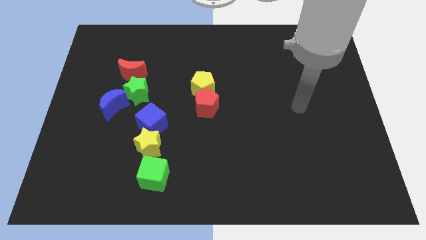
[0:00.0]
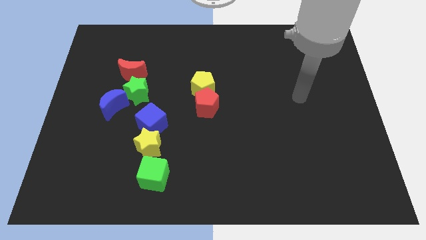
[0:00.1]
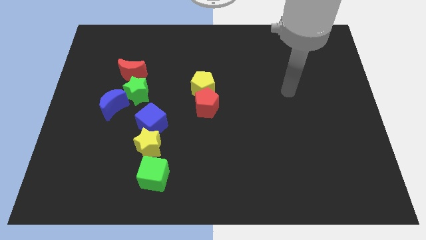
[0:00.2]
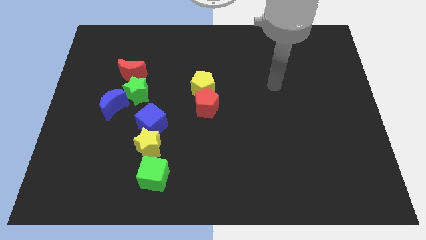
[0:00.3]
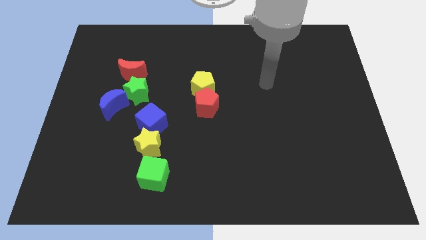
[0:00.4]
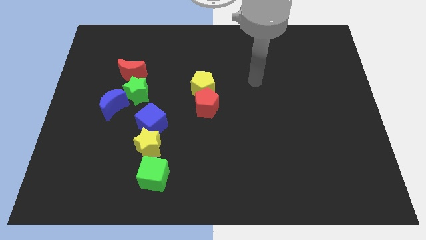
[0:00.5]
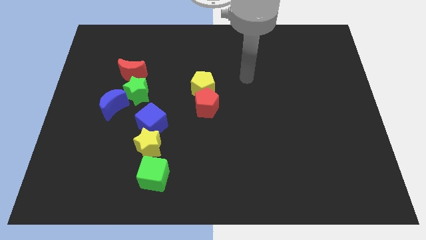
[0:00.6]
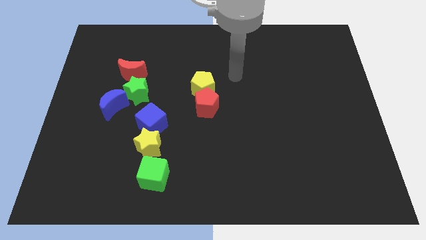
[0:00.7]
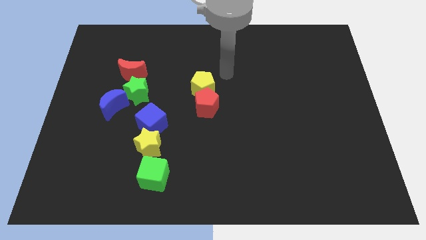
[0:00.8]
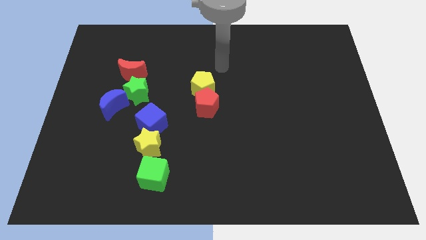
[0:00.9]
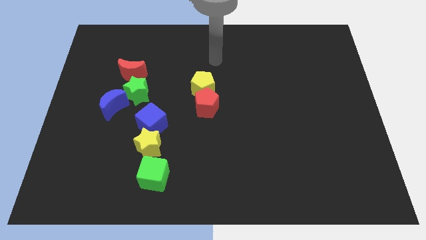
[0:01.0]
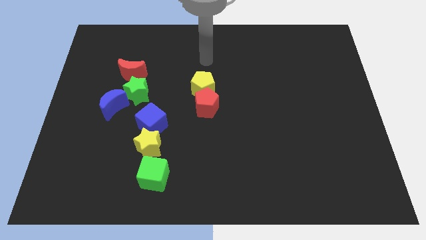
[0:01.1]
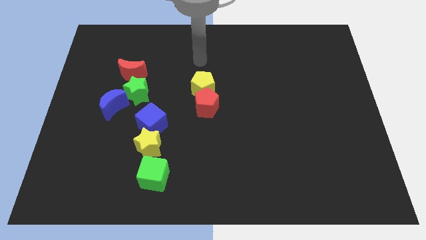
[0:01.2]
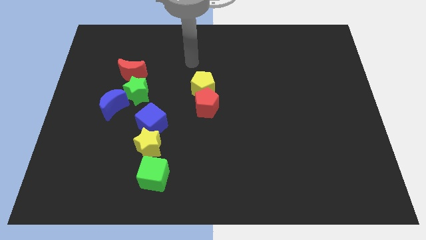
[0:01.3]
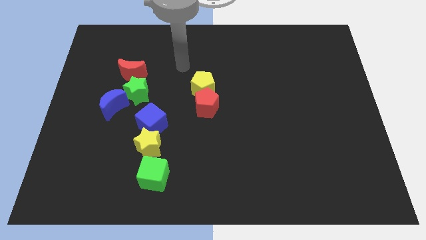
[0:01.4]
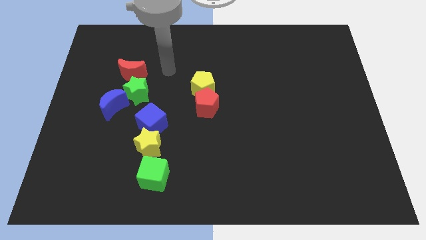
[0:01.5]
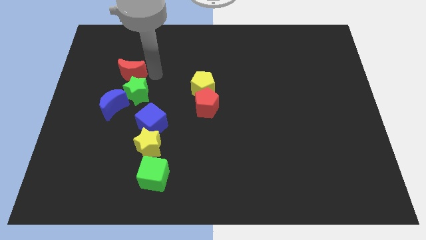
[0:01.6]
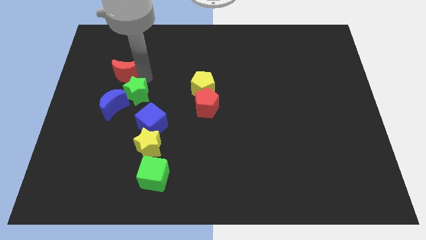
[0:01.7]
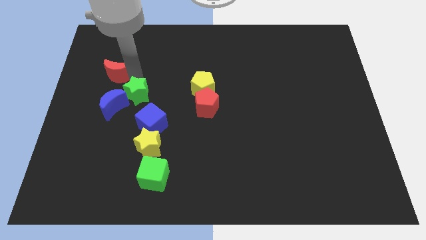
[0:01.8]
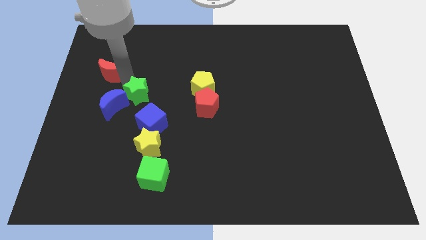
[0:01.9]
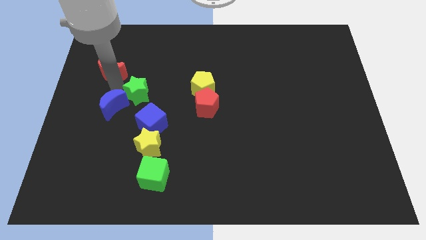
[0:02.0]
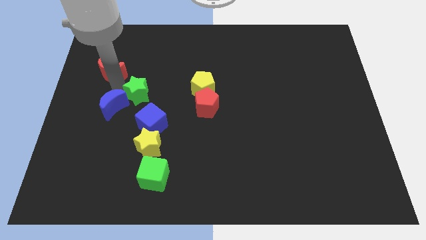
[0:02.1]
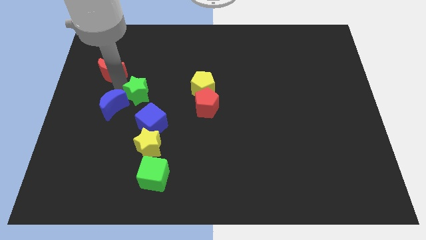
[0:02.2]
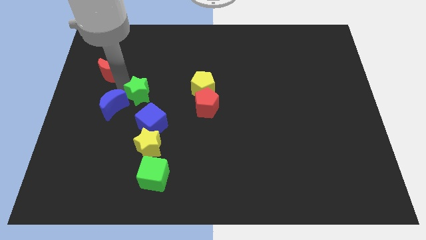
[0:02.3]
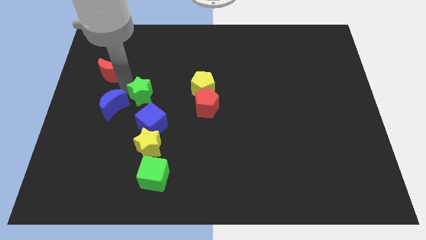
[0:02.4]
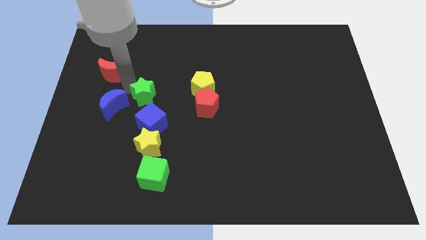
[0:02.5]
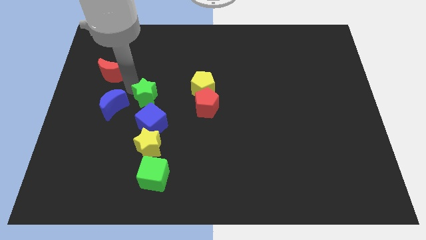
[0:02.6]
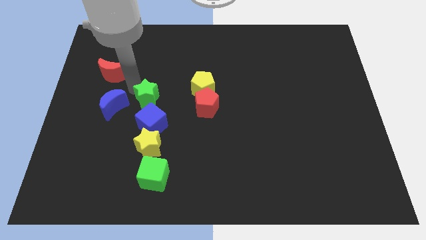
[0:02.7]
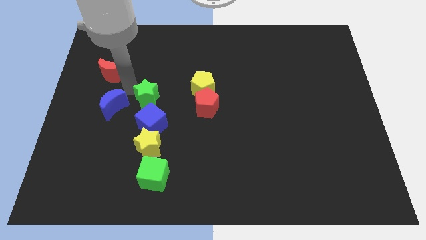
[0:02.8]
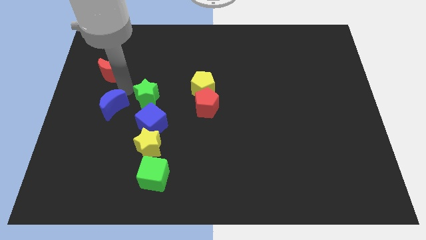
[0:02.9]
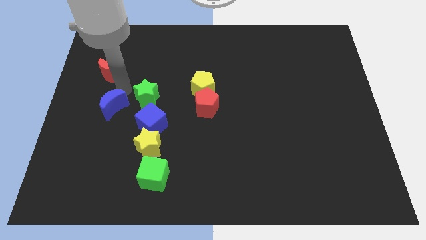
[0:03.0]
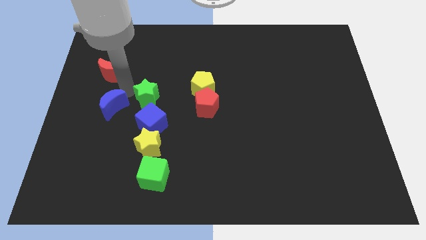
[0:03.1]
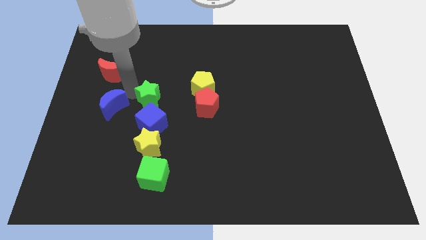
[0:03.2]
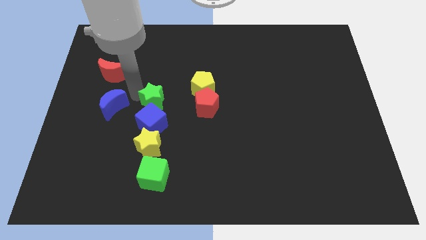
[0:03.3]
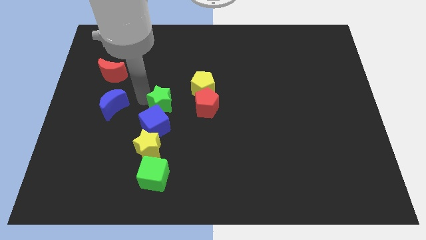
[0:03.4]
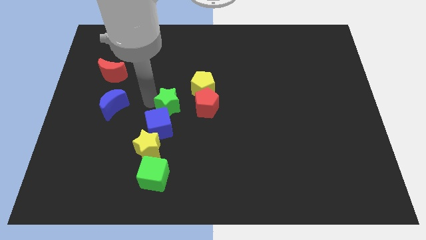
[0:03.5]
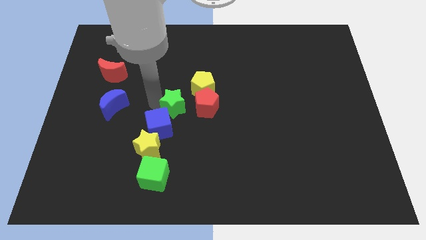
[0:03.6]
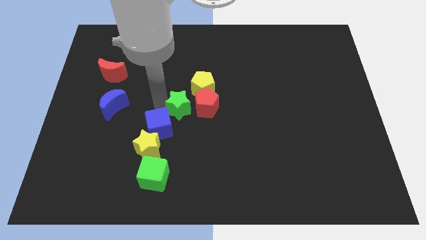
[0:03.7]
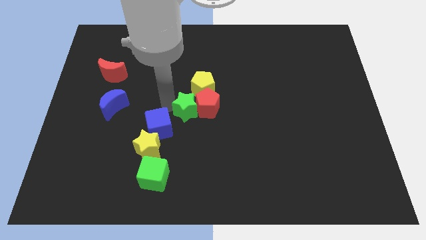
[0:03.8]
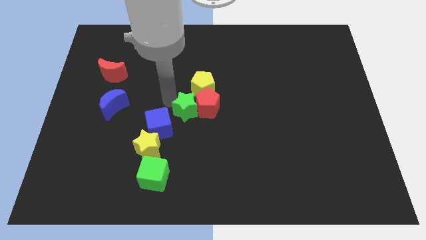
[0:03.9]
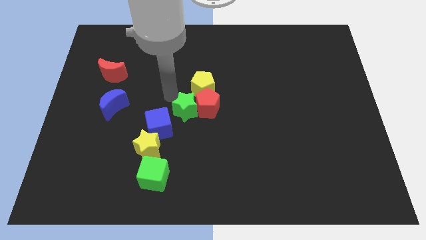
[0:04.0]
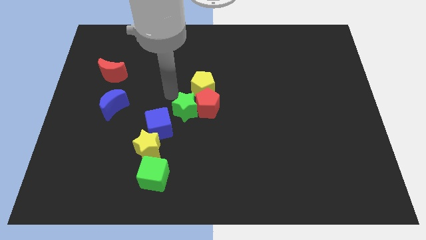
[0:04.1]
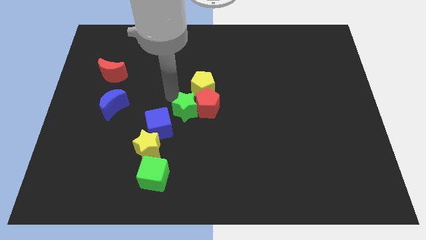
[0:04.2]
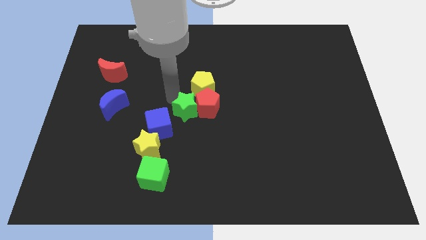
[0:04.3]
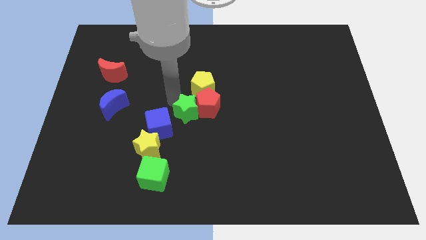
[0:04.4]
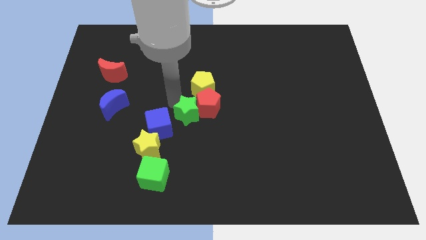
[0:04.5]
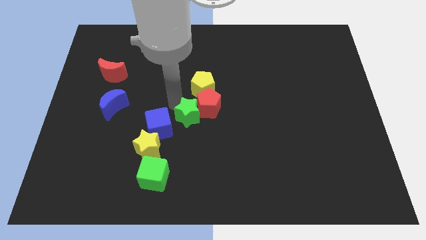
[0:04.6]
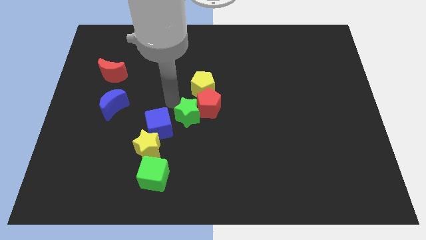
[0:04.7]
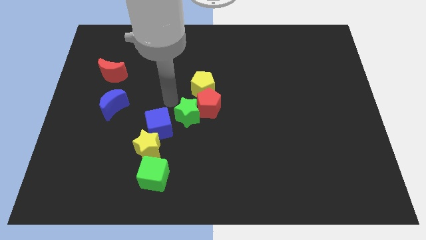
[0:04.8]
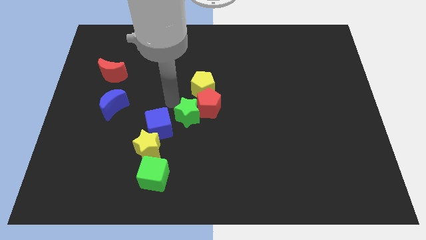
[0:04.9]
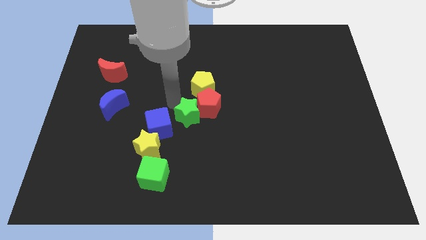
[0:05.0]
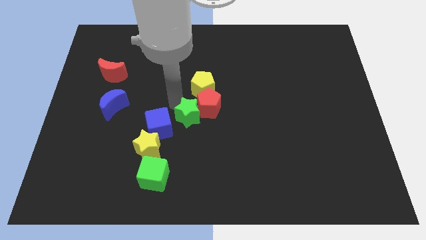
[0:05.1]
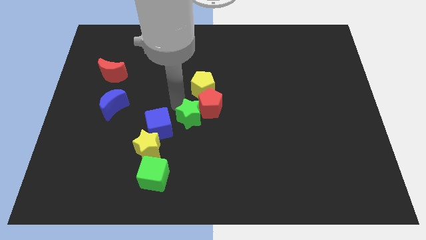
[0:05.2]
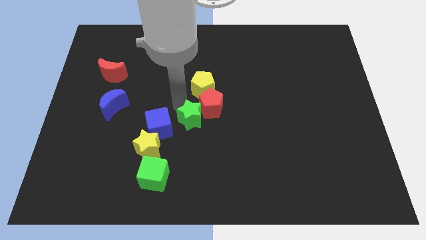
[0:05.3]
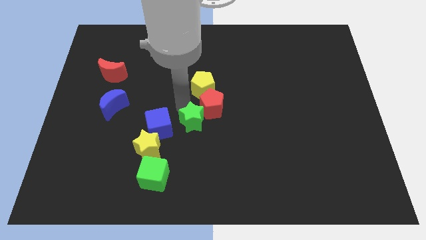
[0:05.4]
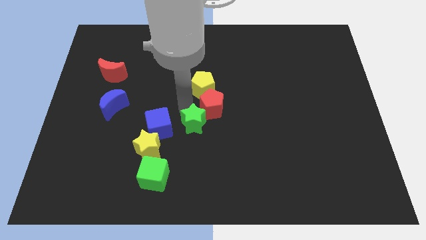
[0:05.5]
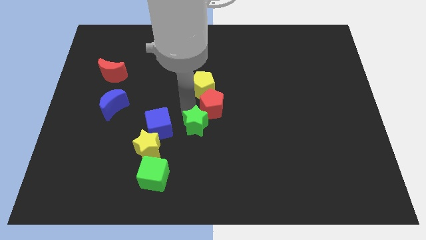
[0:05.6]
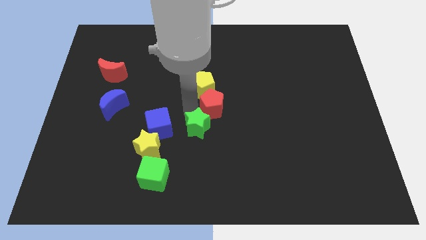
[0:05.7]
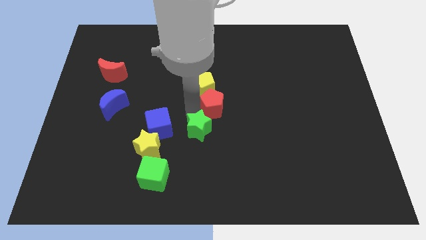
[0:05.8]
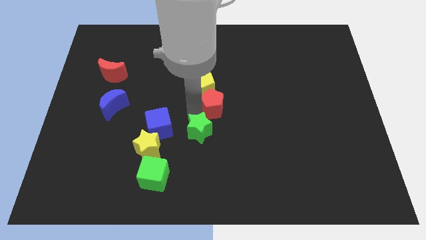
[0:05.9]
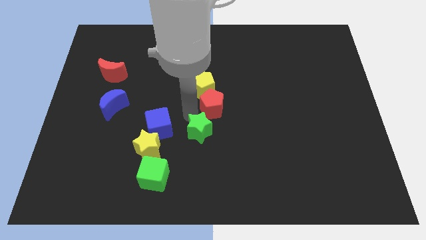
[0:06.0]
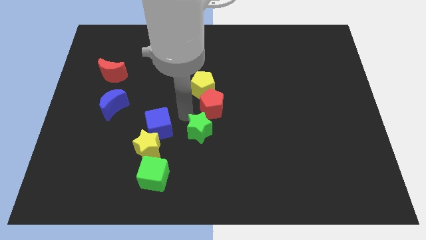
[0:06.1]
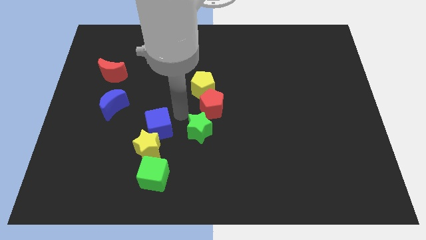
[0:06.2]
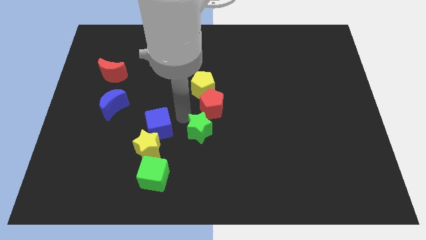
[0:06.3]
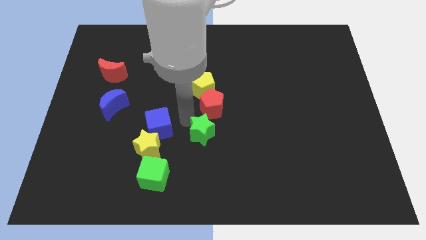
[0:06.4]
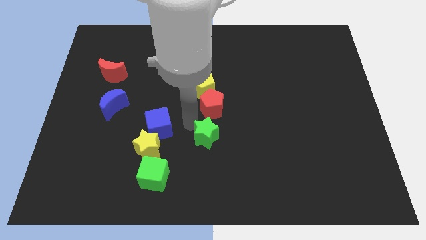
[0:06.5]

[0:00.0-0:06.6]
slide the green star down and then right

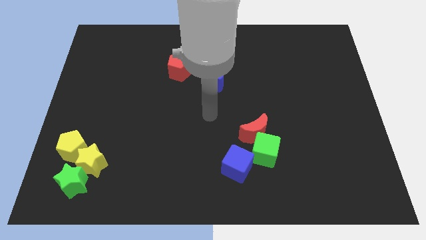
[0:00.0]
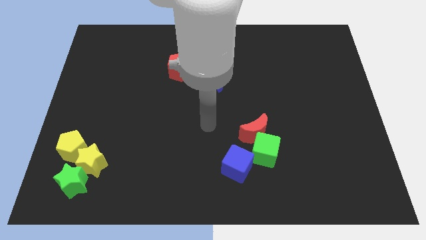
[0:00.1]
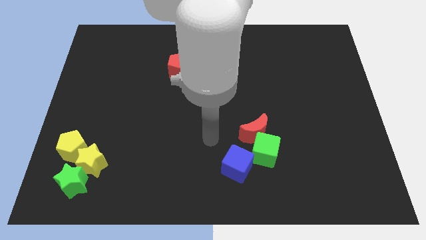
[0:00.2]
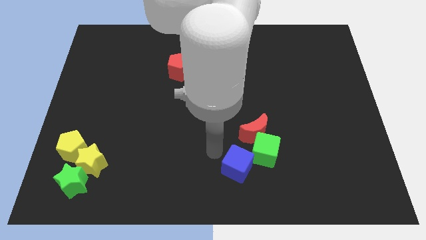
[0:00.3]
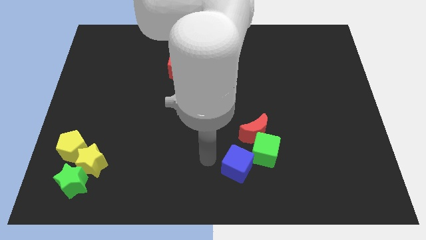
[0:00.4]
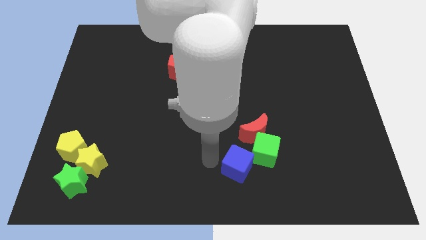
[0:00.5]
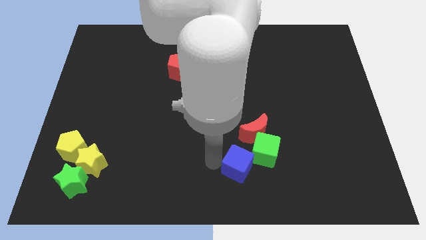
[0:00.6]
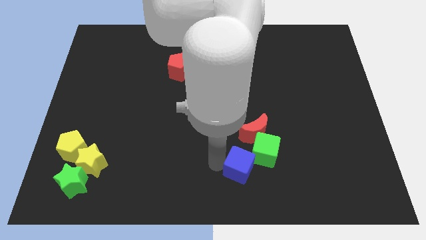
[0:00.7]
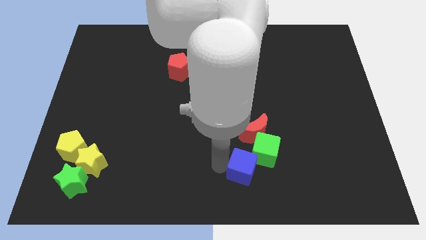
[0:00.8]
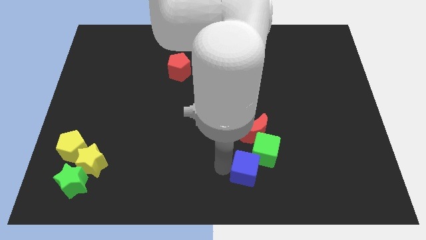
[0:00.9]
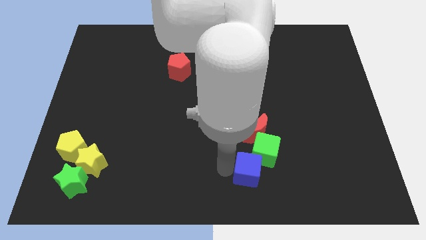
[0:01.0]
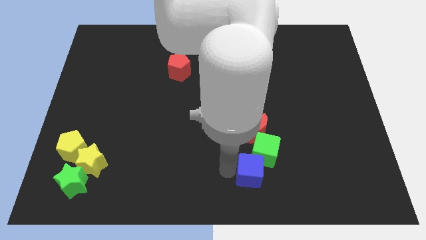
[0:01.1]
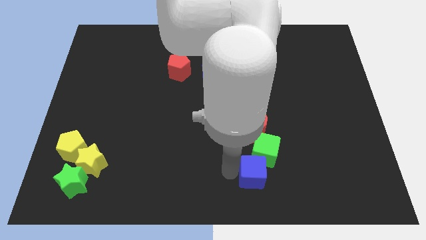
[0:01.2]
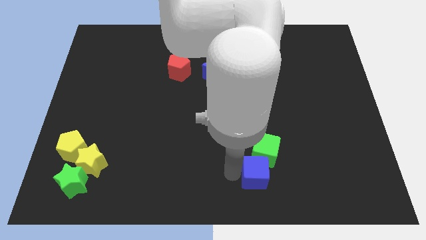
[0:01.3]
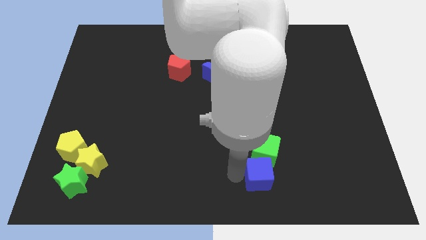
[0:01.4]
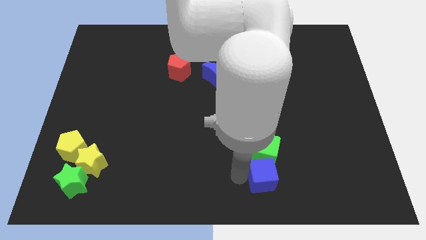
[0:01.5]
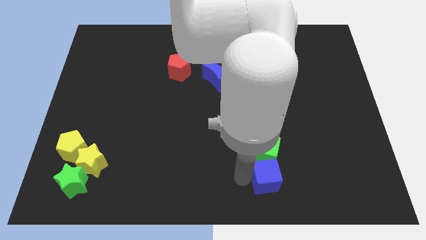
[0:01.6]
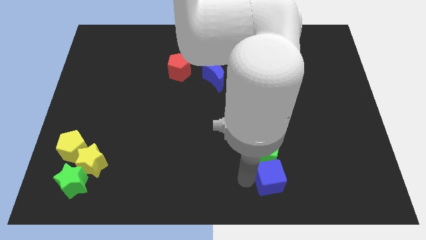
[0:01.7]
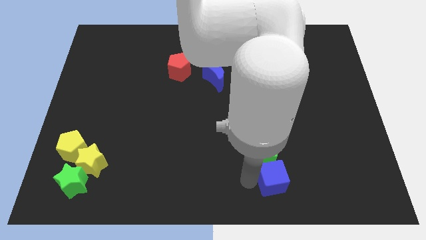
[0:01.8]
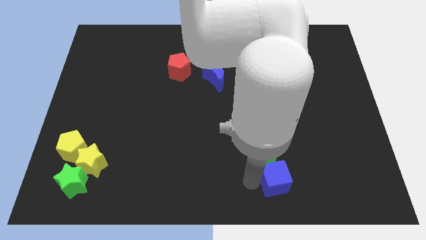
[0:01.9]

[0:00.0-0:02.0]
slide the blue cube a little to the right
